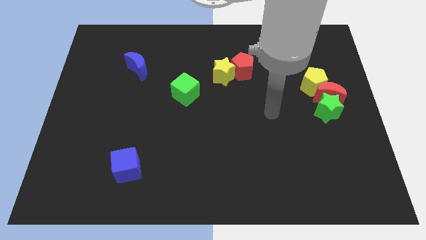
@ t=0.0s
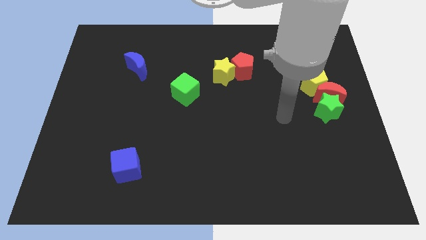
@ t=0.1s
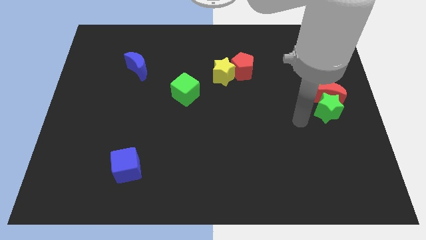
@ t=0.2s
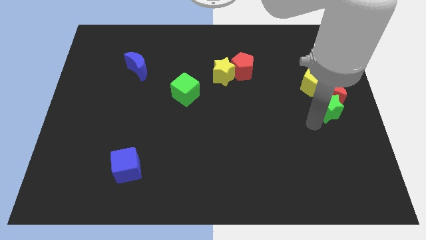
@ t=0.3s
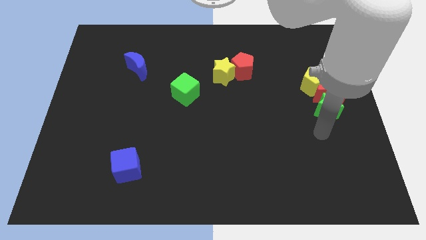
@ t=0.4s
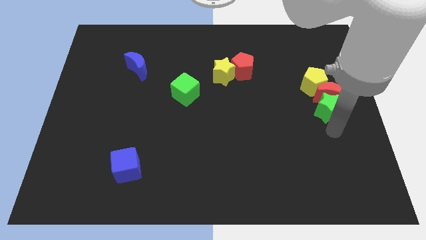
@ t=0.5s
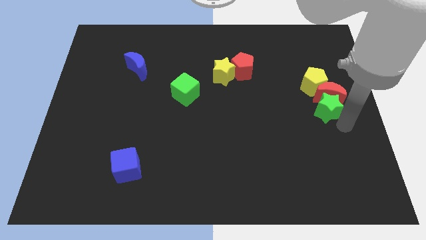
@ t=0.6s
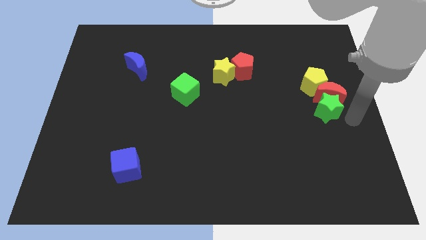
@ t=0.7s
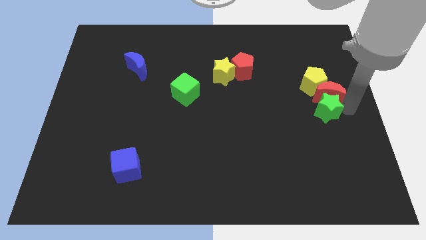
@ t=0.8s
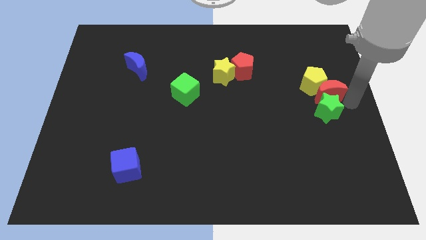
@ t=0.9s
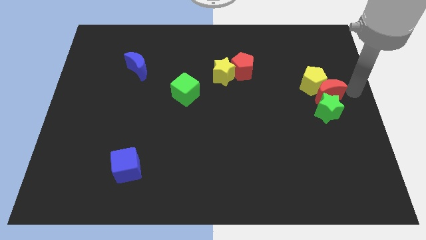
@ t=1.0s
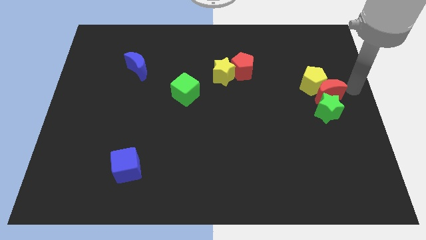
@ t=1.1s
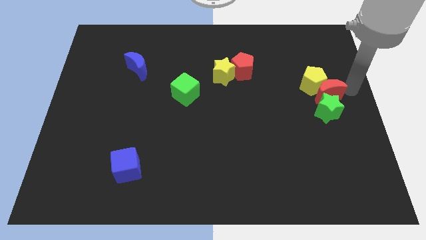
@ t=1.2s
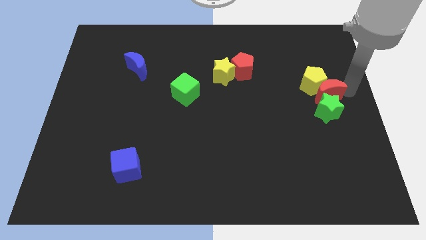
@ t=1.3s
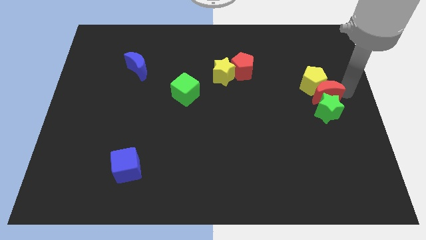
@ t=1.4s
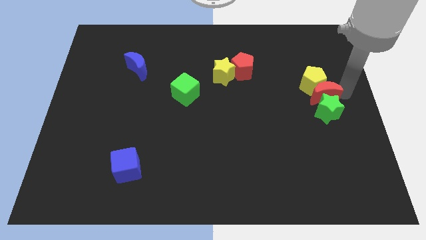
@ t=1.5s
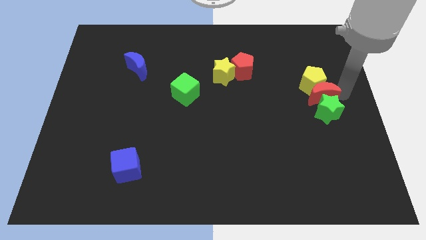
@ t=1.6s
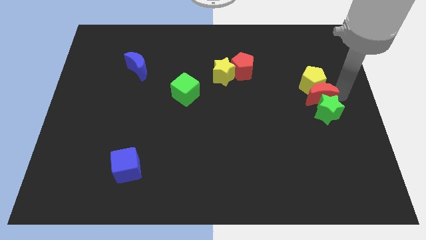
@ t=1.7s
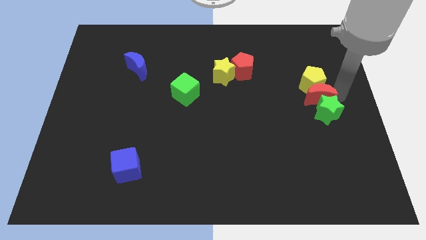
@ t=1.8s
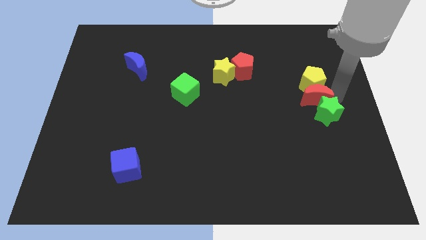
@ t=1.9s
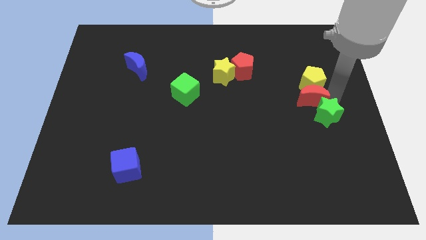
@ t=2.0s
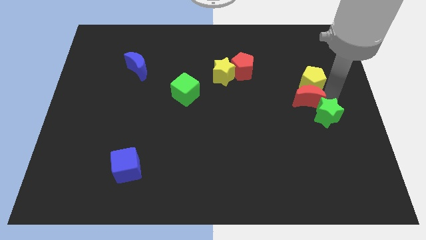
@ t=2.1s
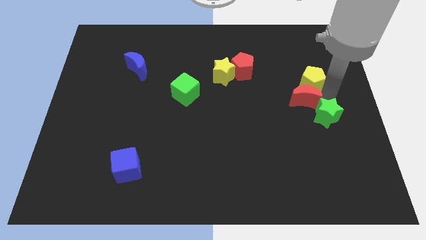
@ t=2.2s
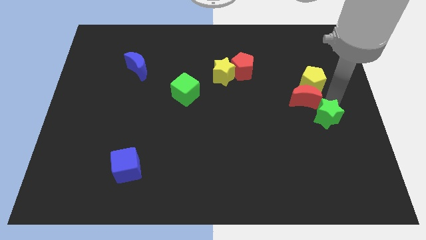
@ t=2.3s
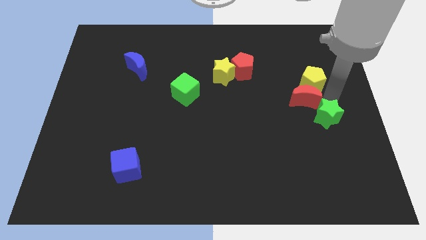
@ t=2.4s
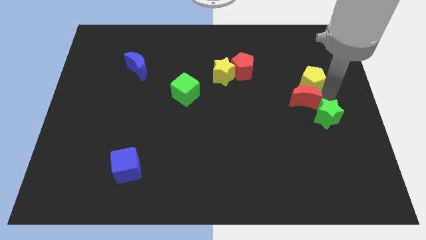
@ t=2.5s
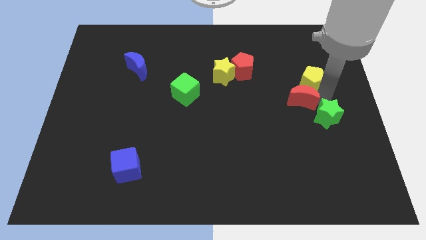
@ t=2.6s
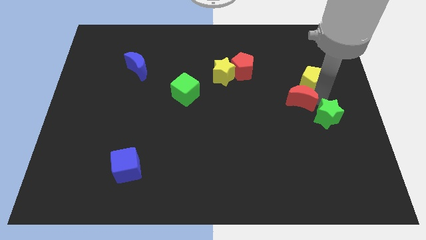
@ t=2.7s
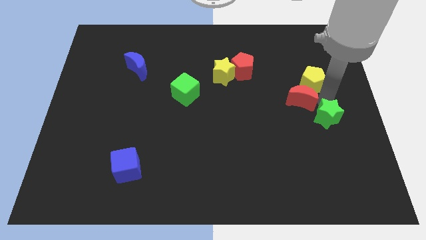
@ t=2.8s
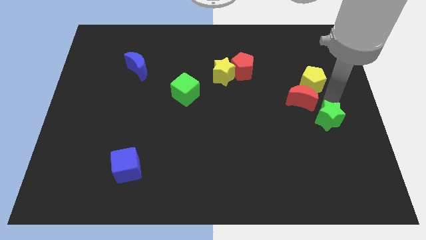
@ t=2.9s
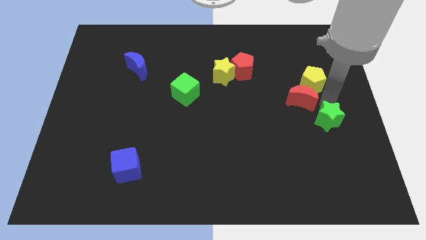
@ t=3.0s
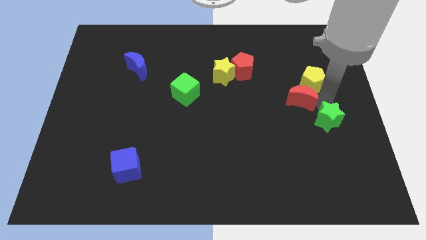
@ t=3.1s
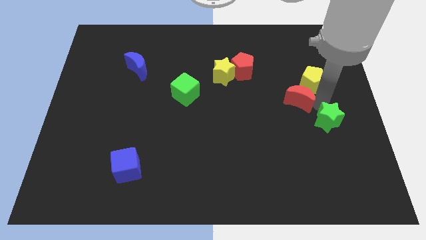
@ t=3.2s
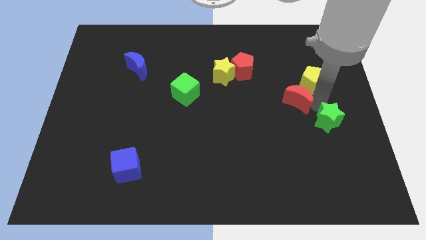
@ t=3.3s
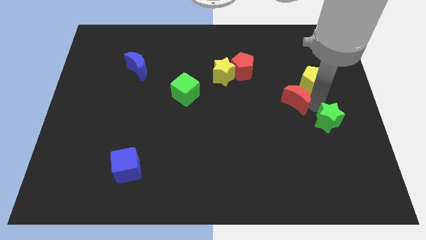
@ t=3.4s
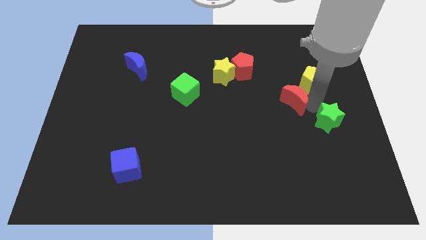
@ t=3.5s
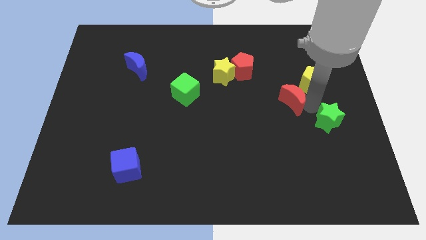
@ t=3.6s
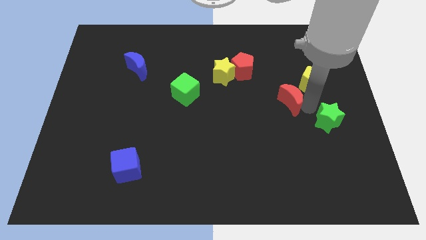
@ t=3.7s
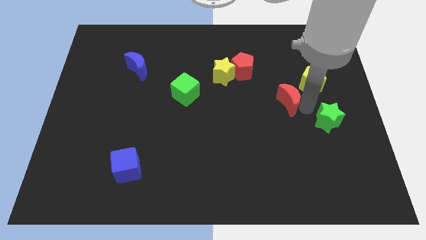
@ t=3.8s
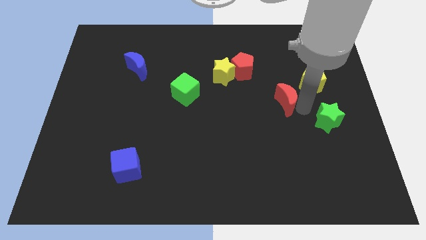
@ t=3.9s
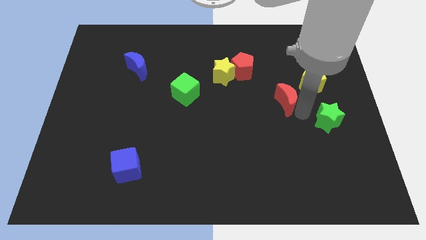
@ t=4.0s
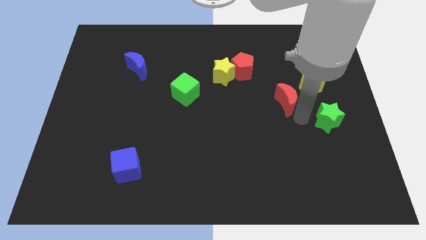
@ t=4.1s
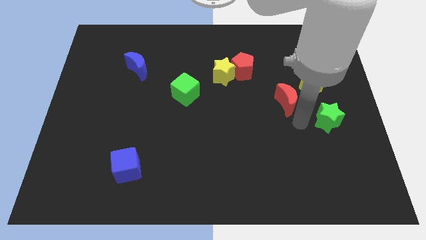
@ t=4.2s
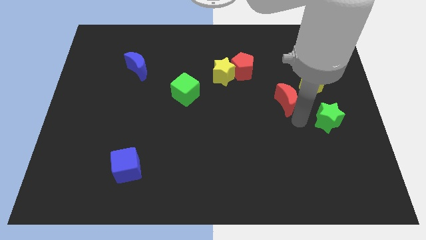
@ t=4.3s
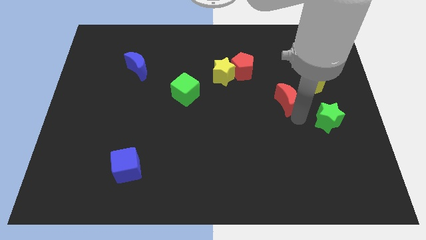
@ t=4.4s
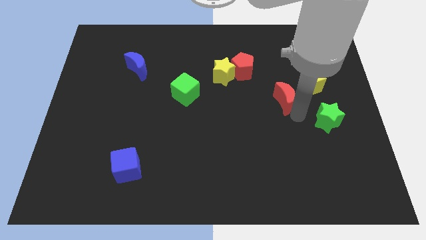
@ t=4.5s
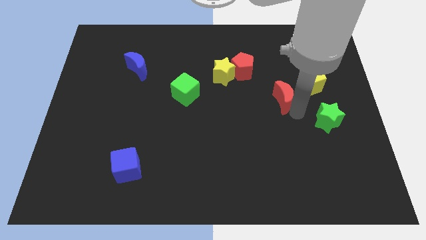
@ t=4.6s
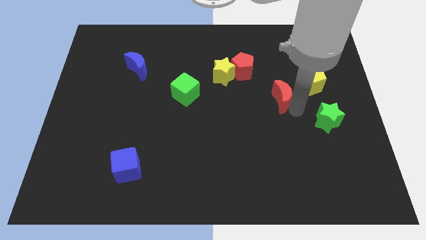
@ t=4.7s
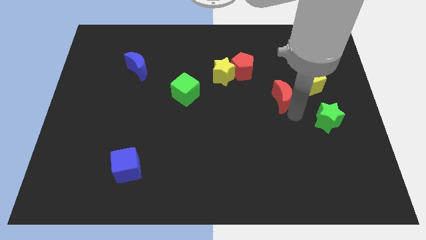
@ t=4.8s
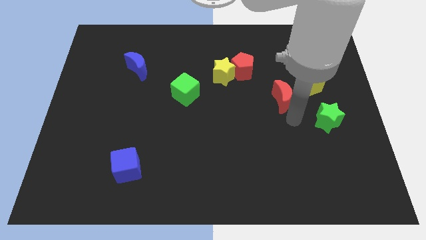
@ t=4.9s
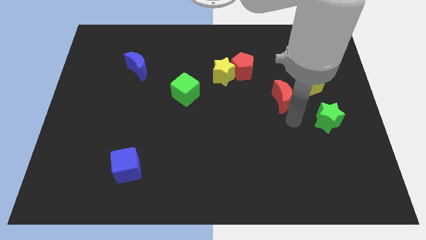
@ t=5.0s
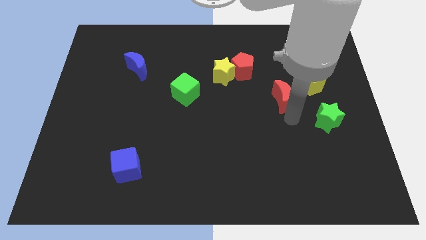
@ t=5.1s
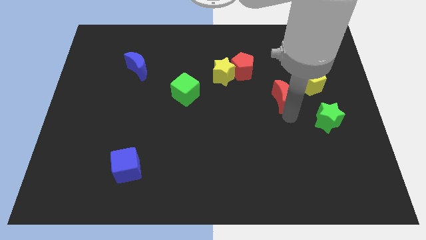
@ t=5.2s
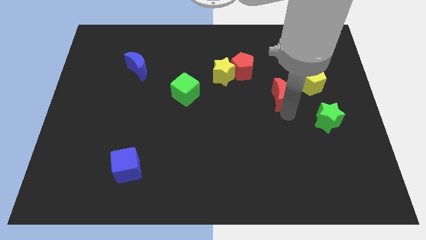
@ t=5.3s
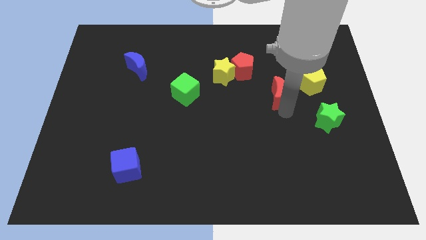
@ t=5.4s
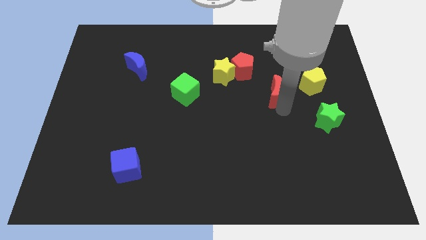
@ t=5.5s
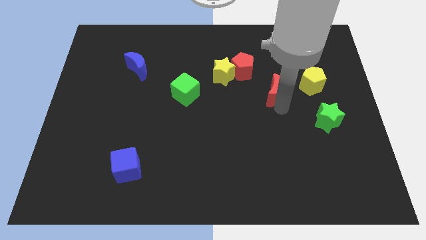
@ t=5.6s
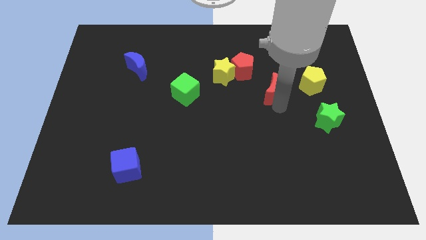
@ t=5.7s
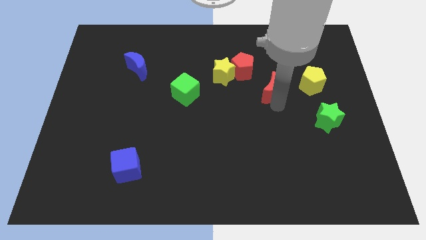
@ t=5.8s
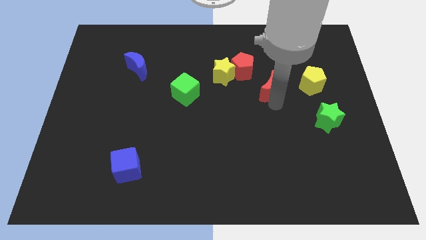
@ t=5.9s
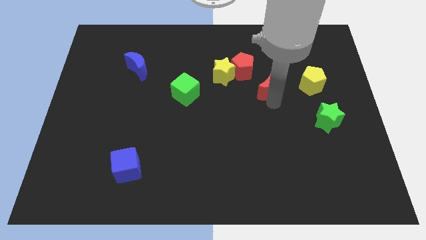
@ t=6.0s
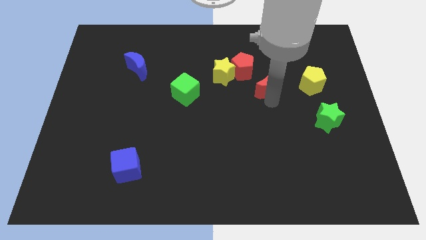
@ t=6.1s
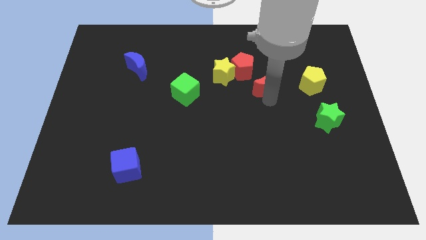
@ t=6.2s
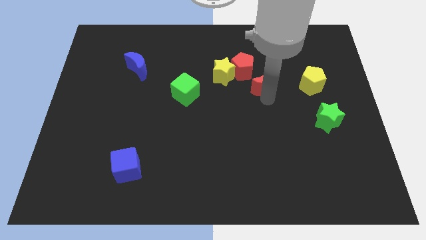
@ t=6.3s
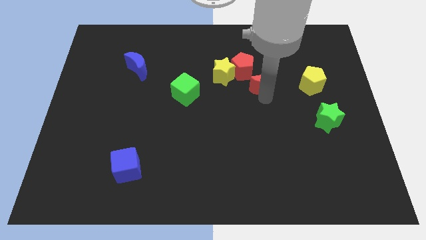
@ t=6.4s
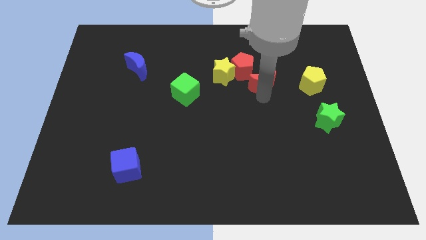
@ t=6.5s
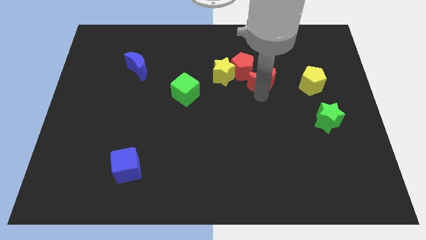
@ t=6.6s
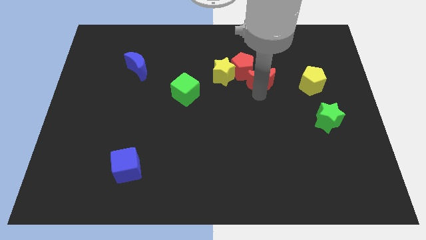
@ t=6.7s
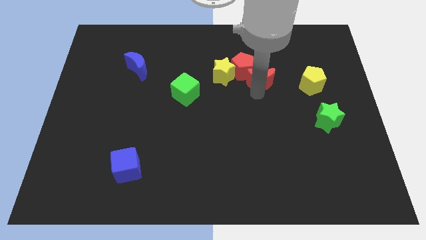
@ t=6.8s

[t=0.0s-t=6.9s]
move the red moon towards the red pentagon
